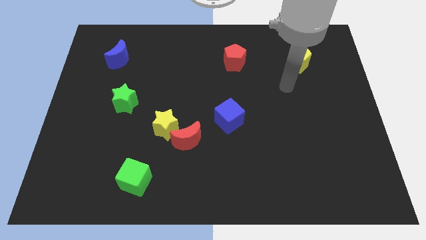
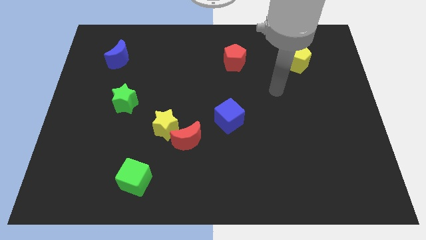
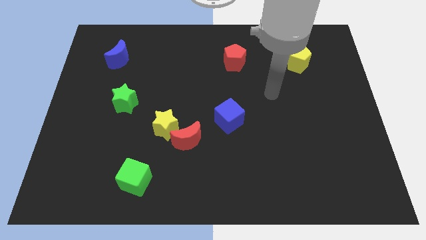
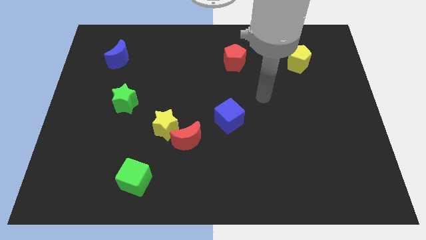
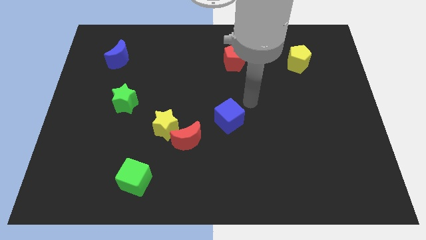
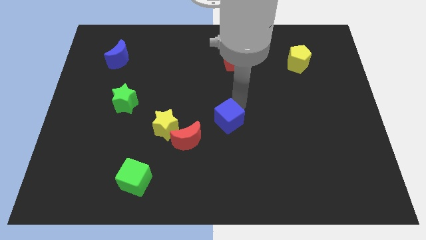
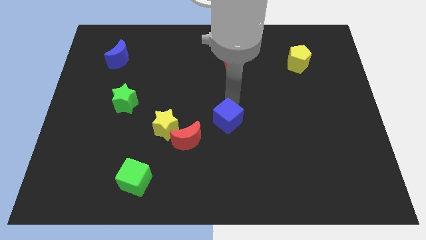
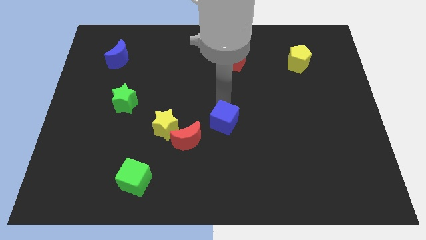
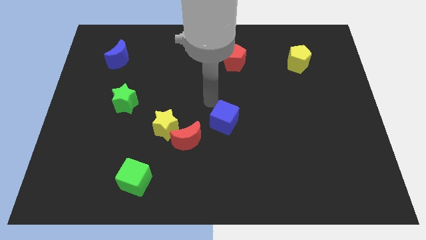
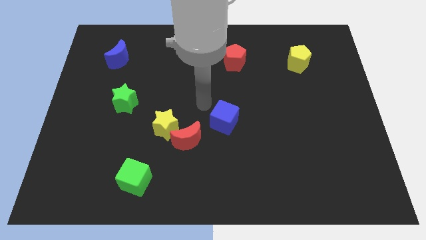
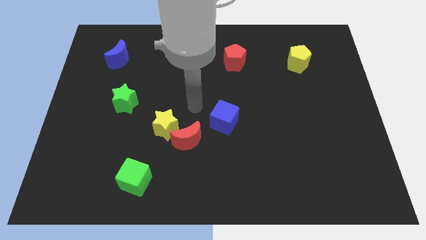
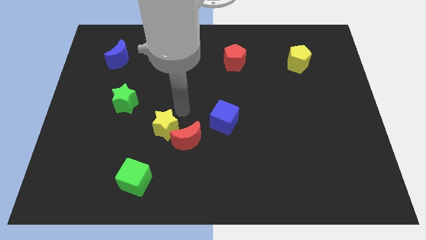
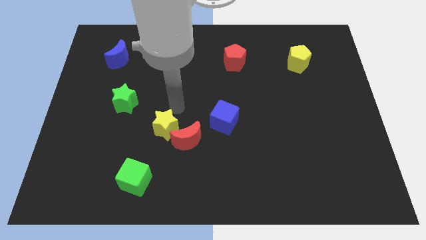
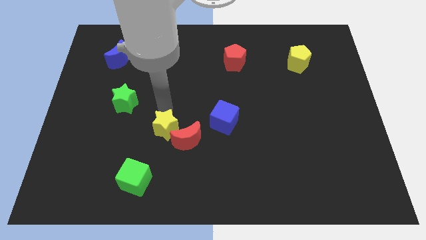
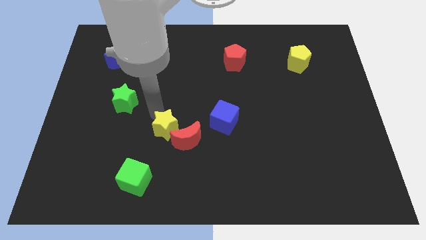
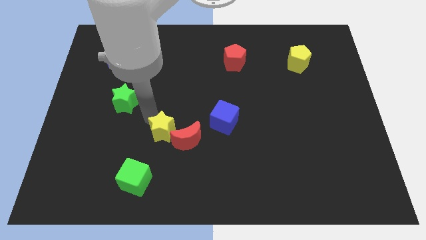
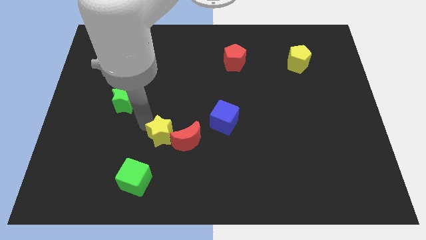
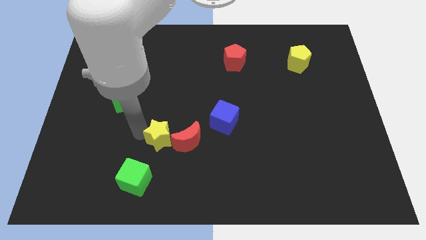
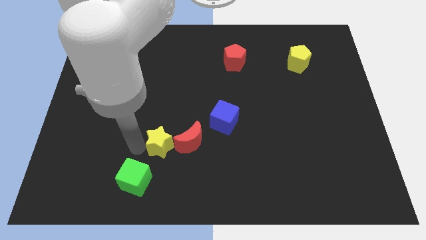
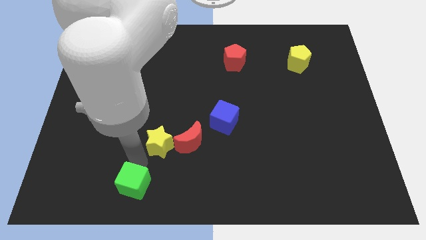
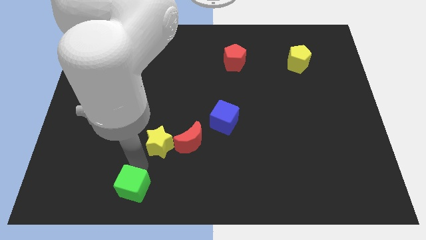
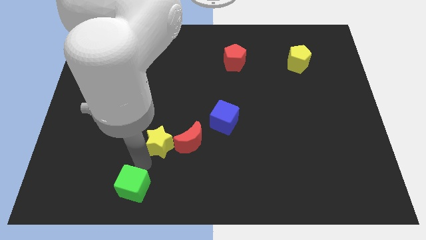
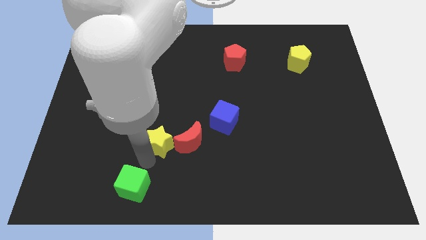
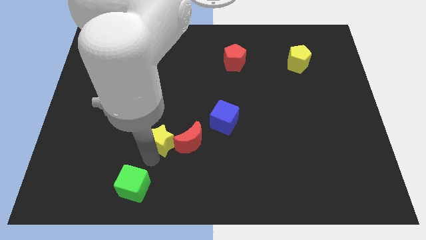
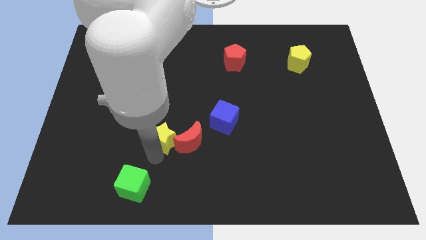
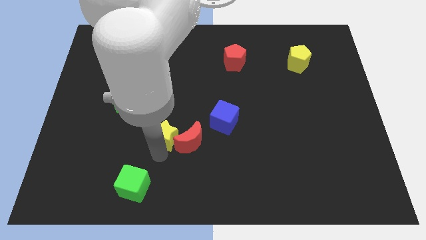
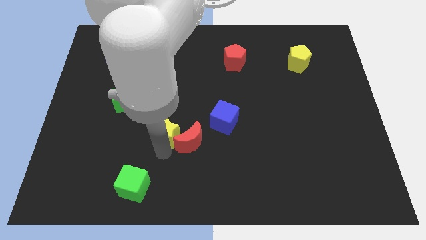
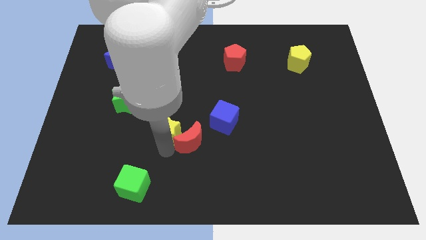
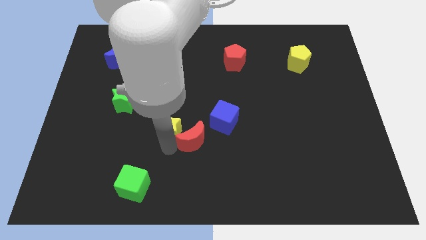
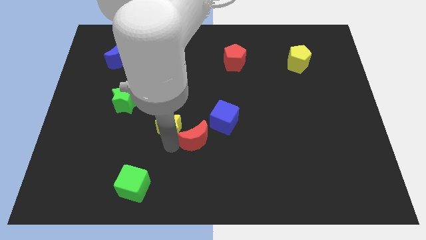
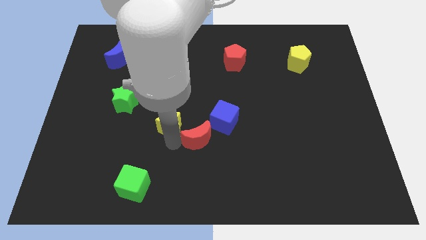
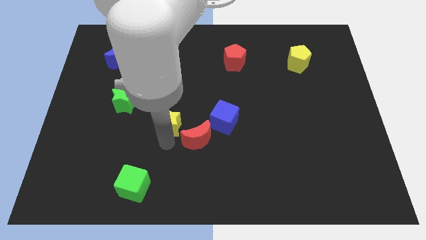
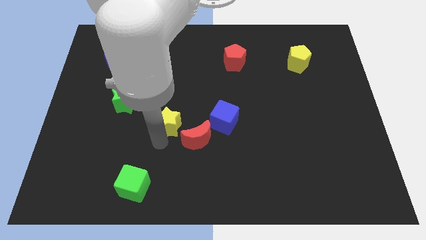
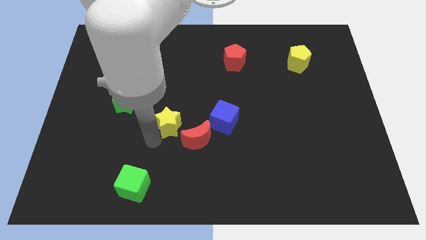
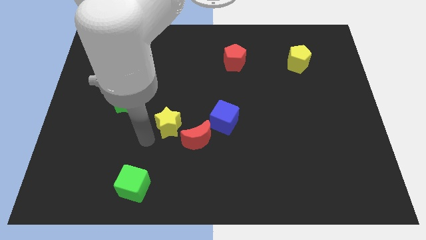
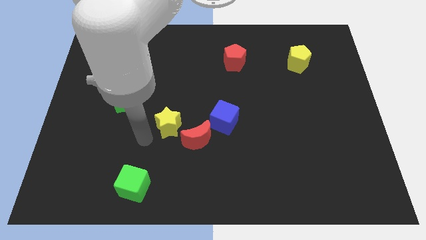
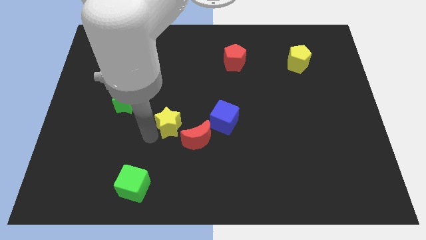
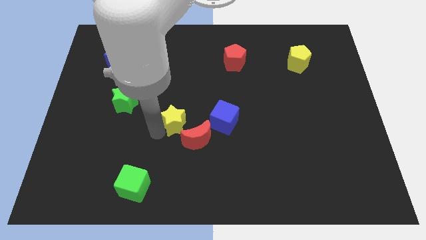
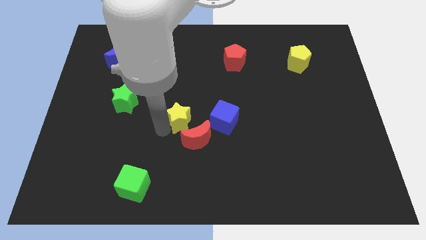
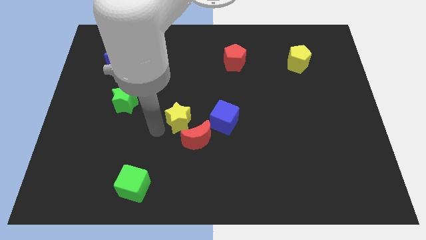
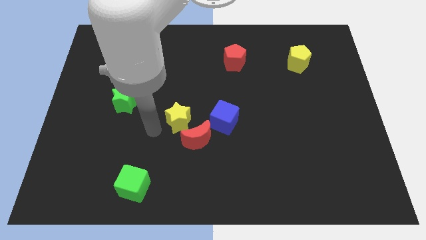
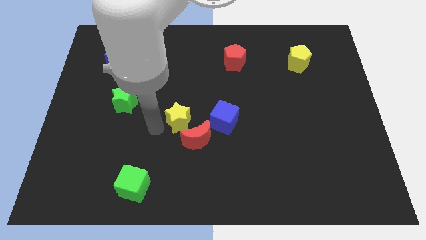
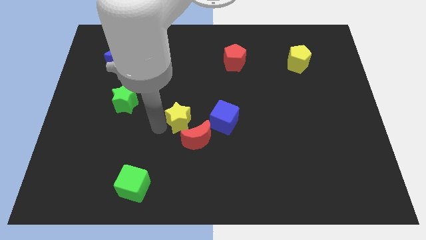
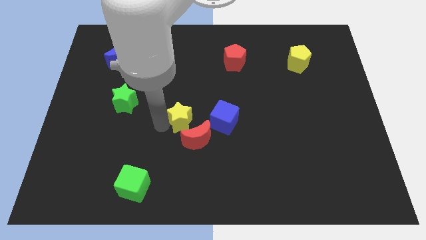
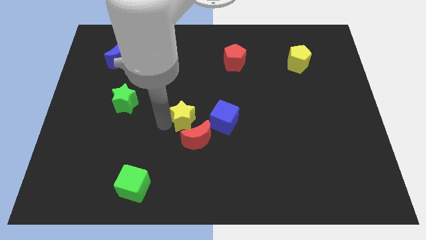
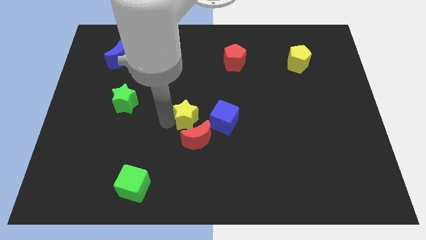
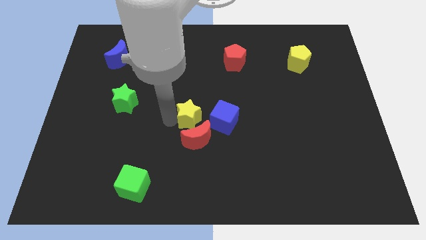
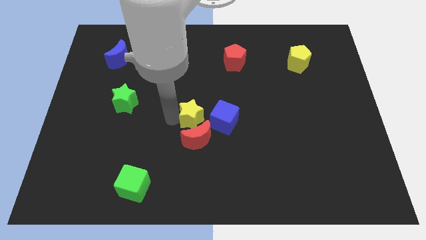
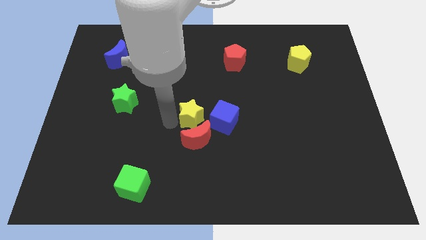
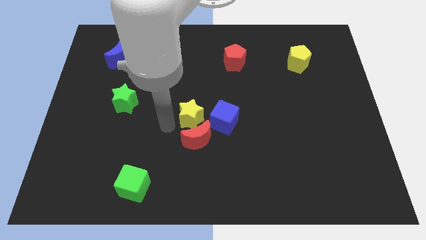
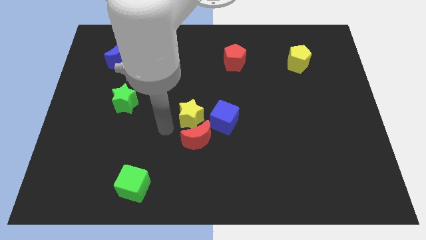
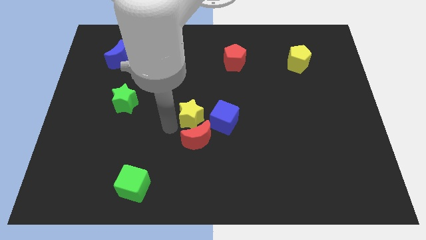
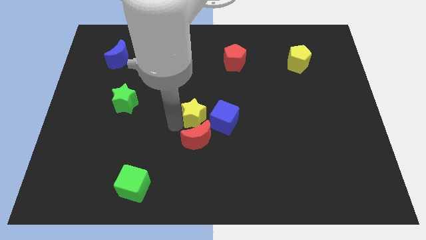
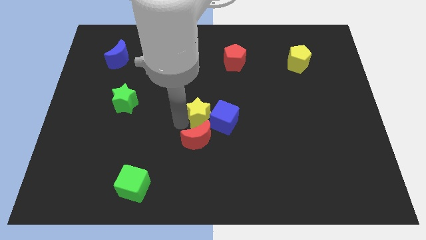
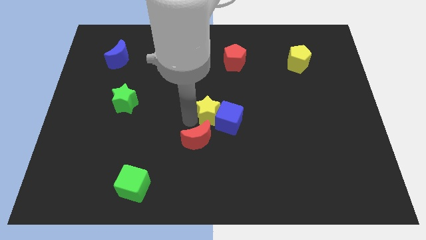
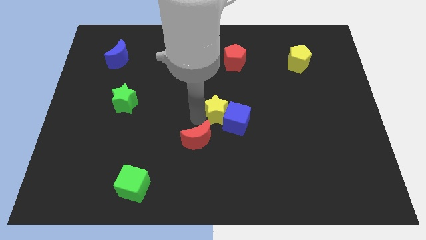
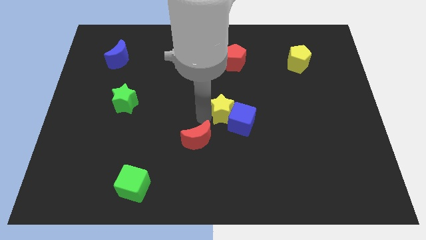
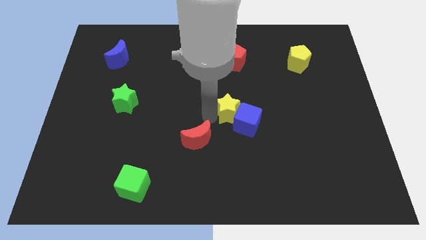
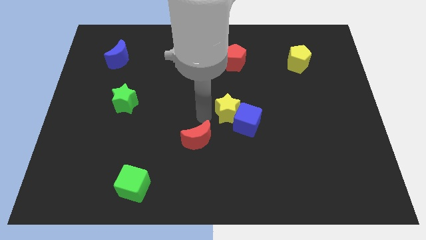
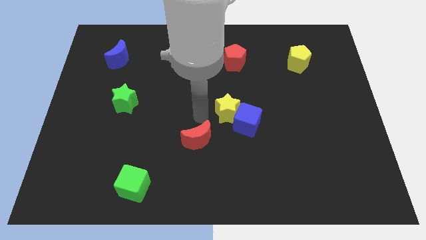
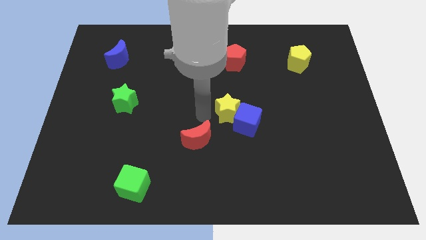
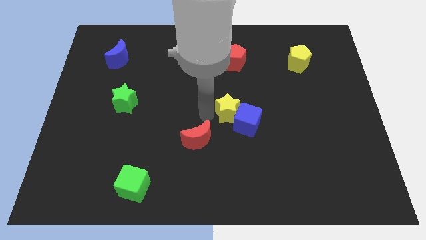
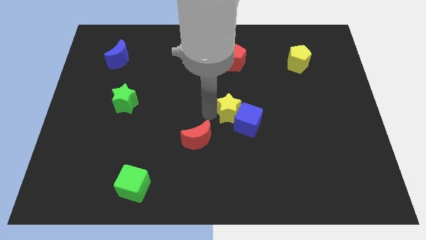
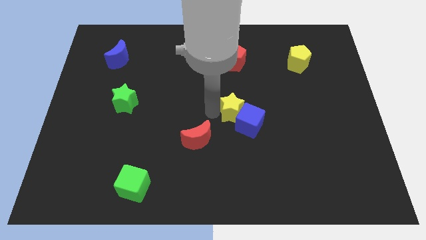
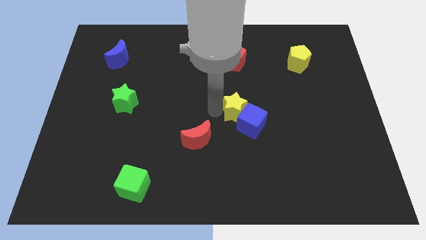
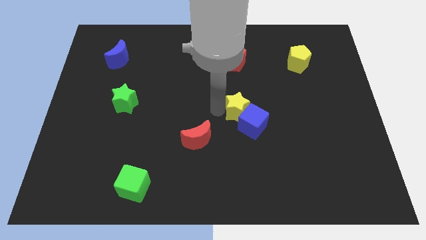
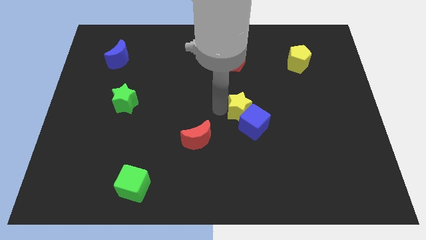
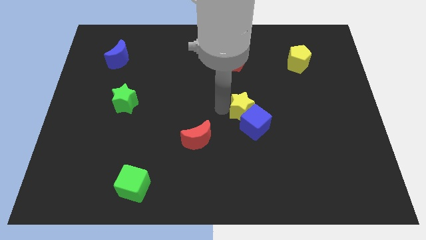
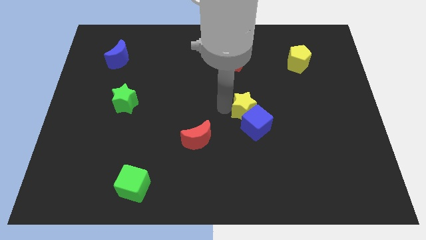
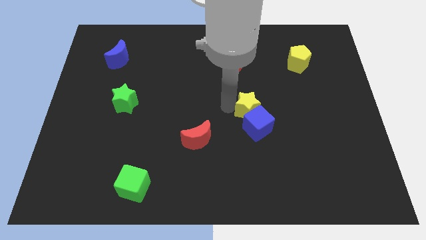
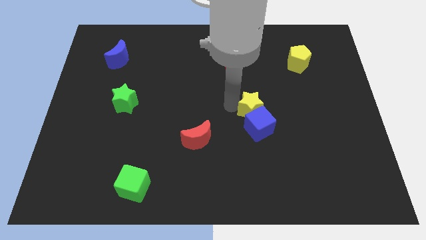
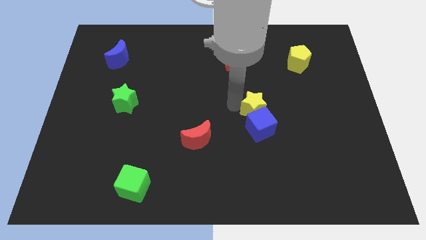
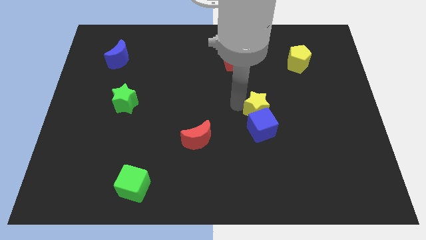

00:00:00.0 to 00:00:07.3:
push the yellow star right

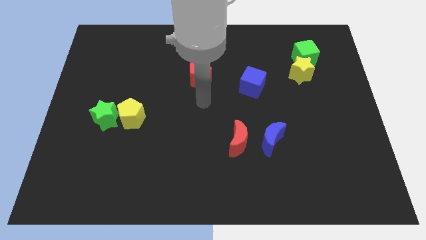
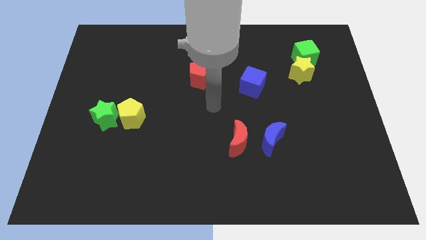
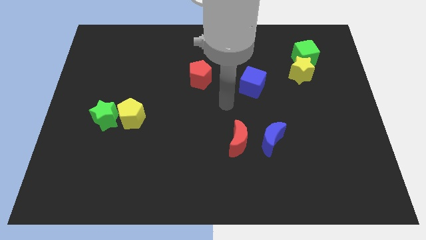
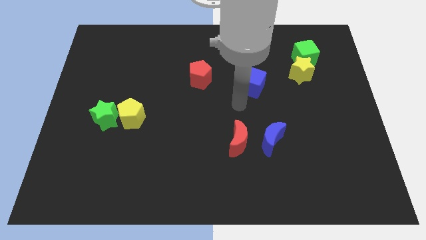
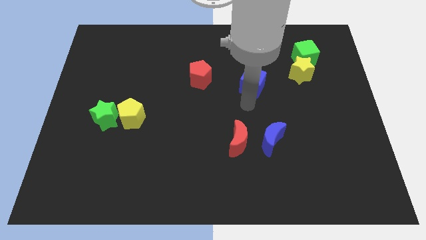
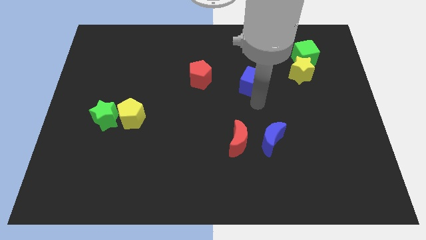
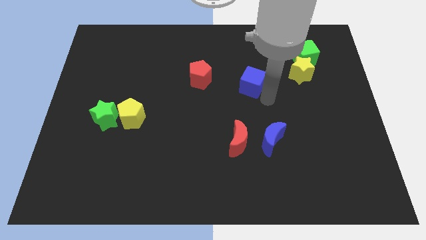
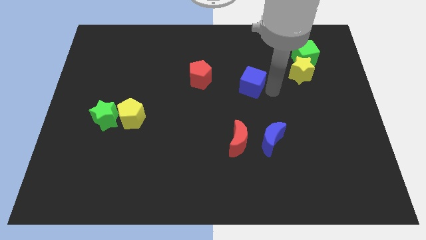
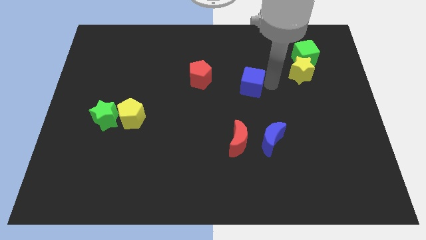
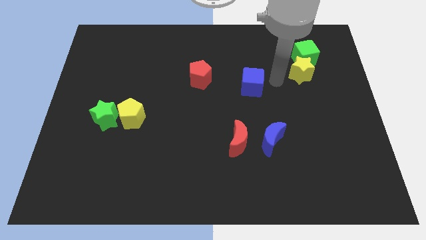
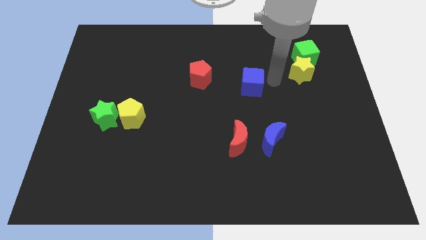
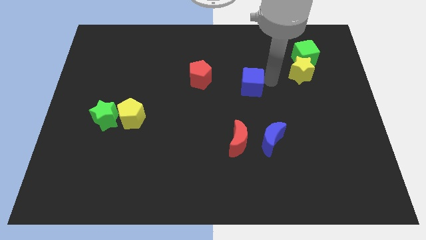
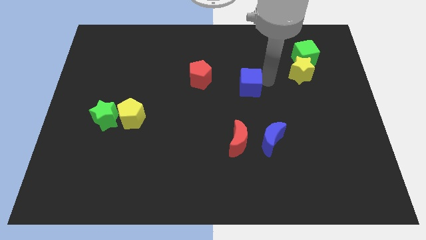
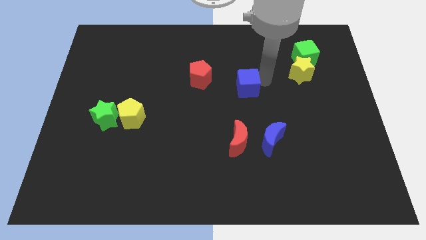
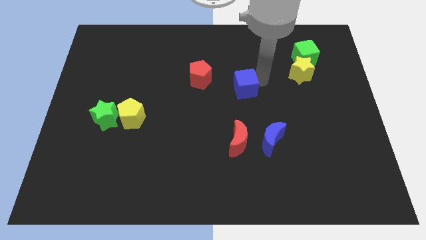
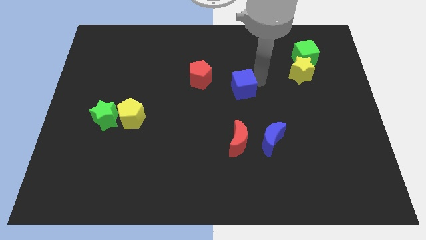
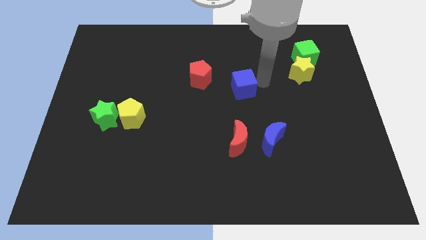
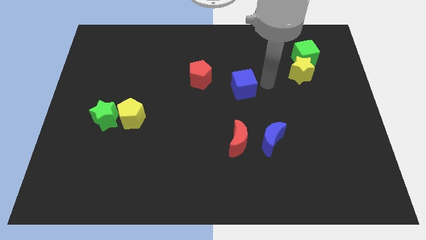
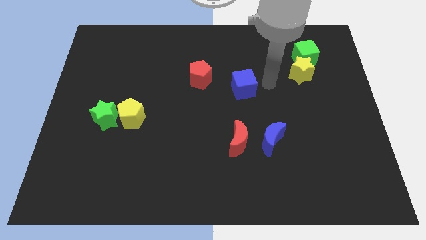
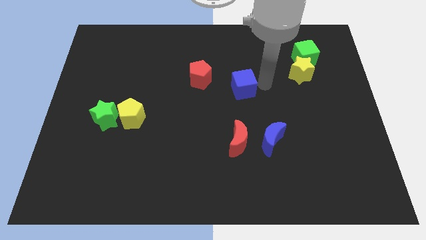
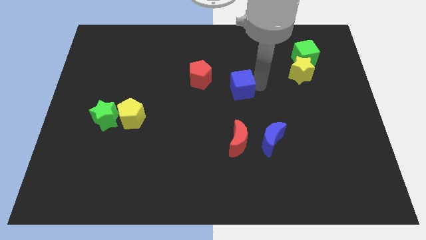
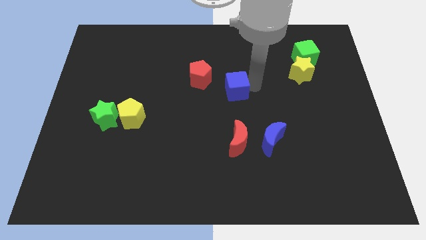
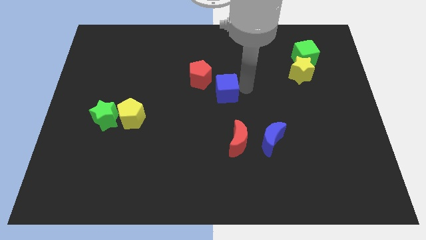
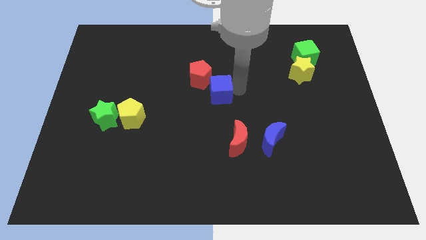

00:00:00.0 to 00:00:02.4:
slightly move the blue cube left
